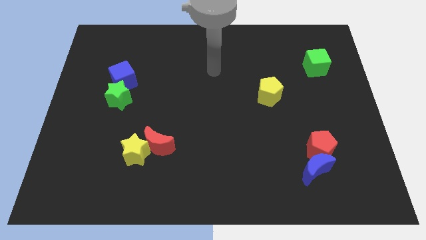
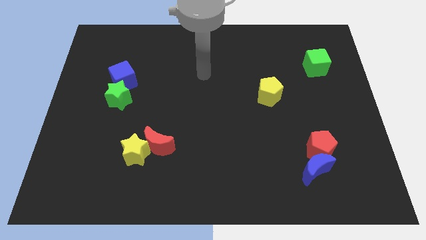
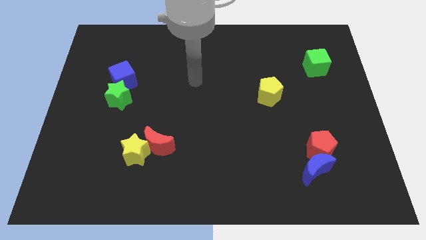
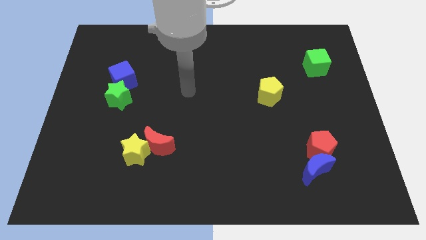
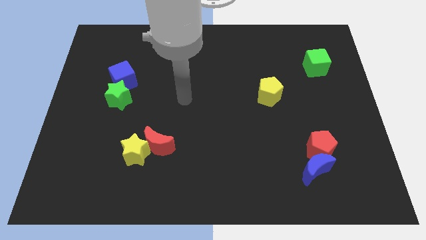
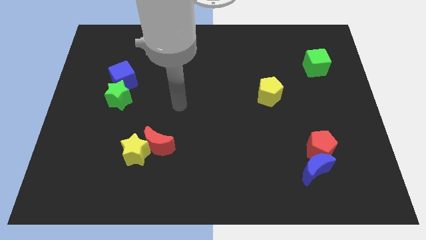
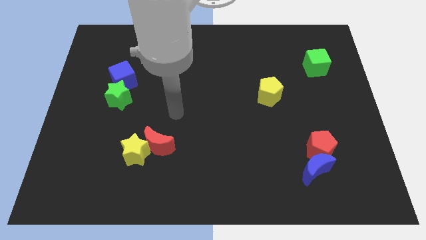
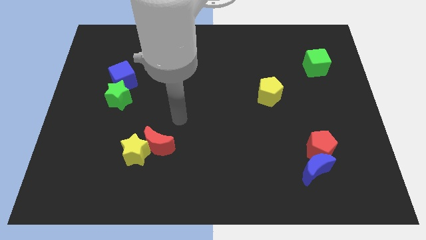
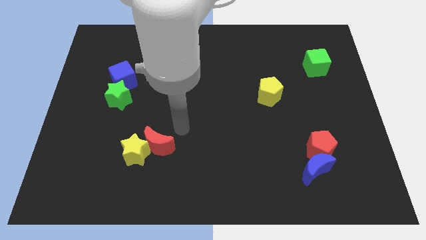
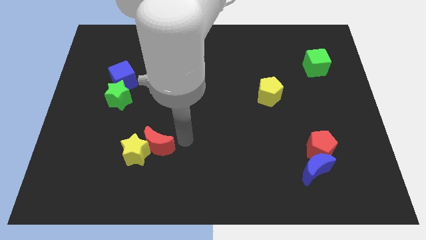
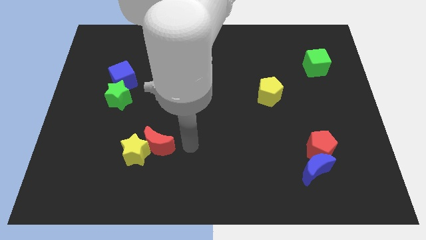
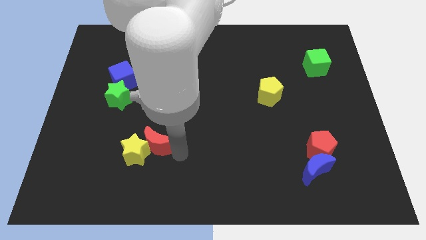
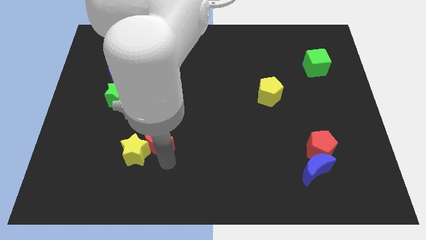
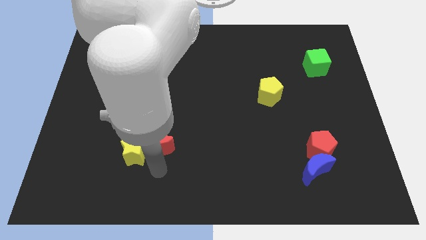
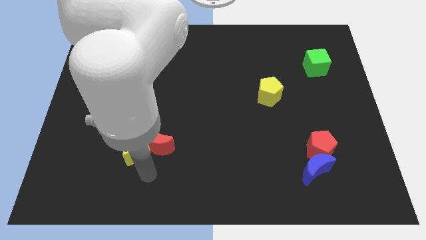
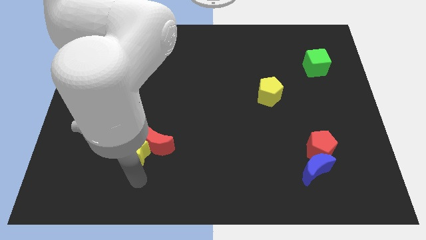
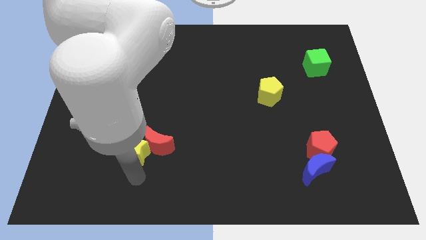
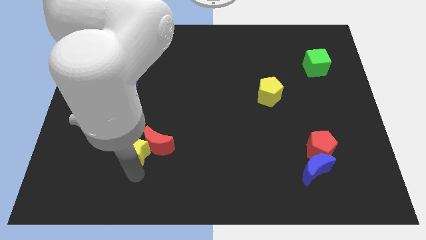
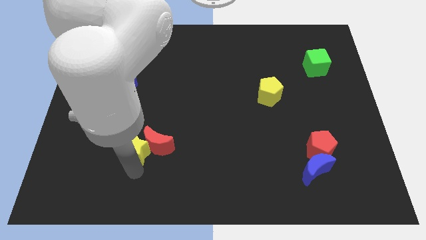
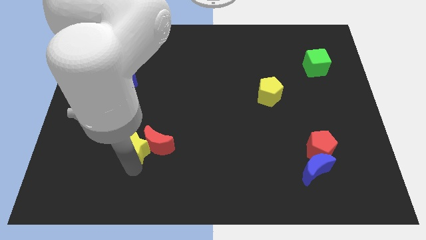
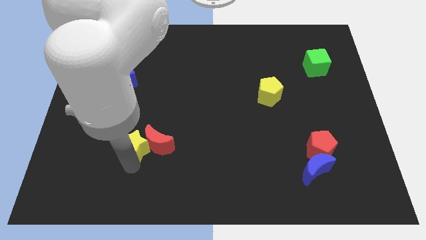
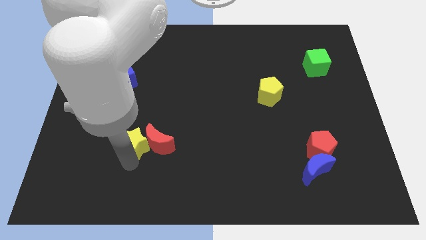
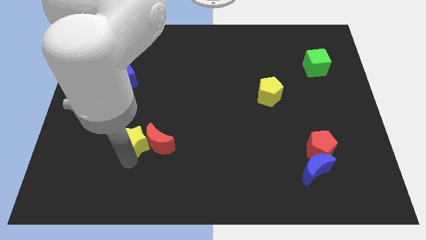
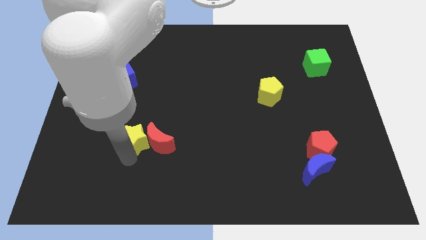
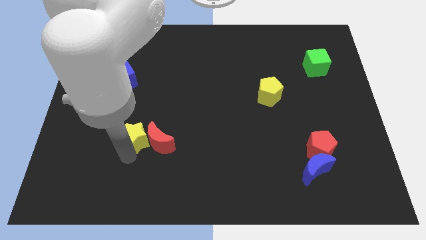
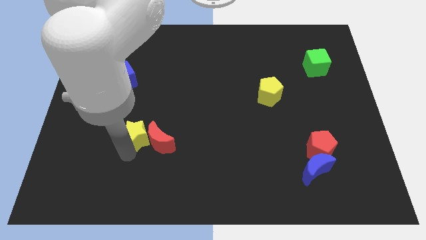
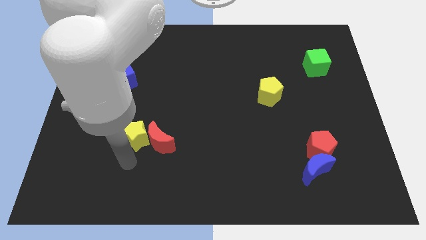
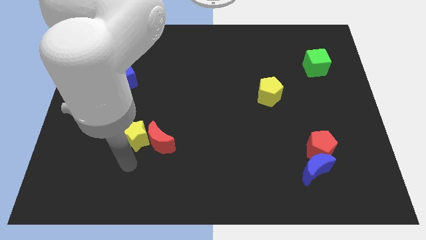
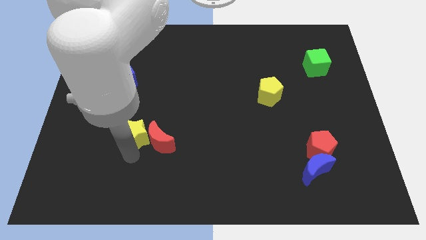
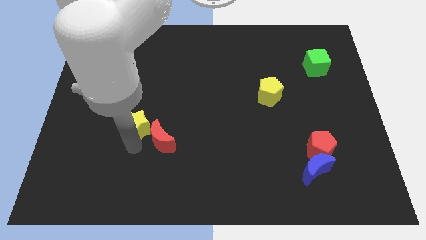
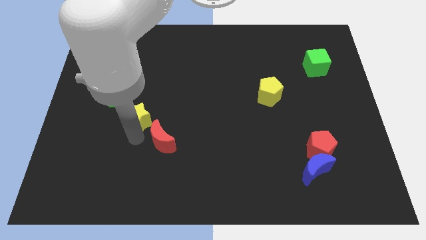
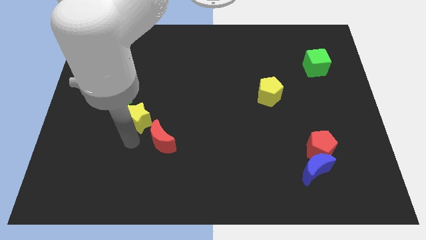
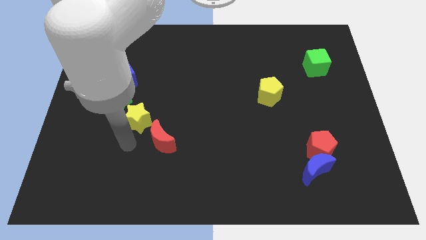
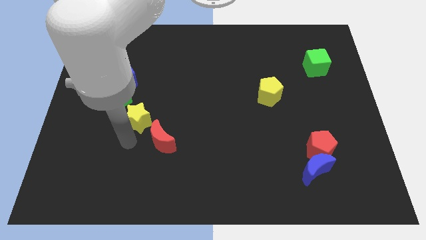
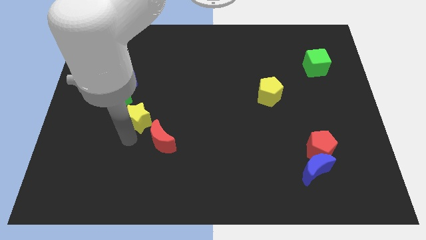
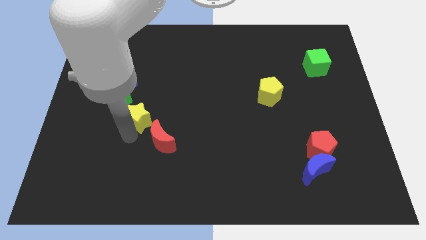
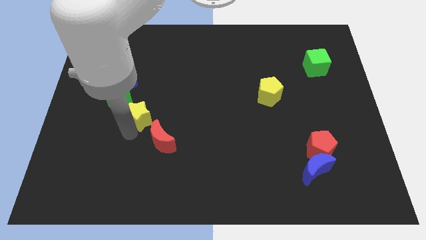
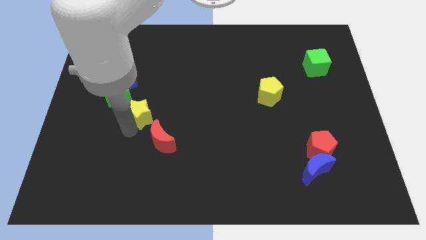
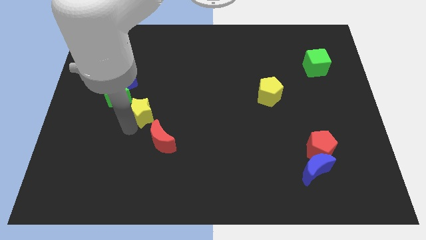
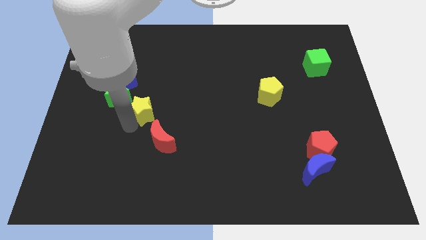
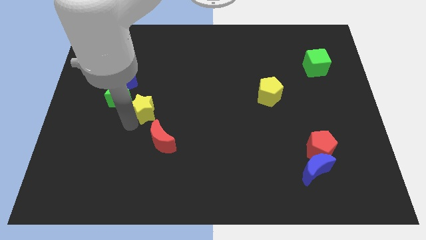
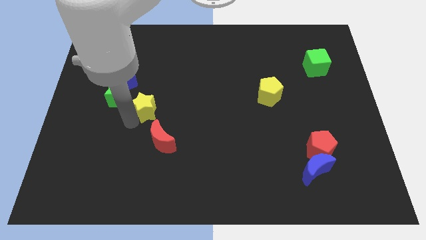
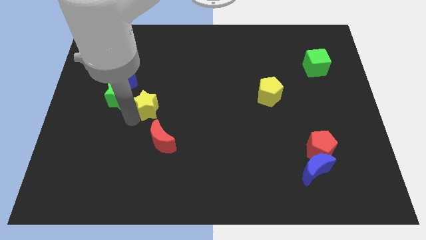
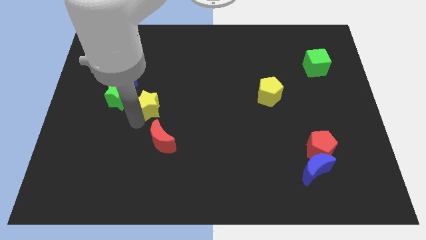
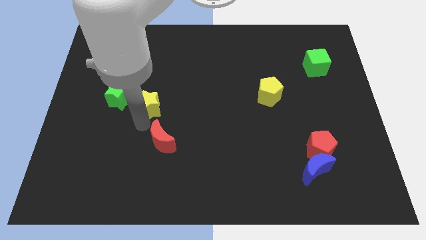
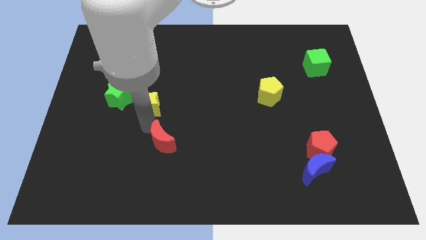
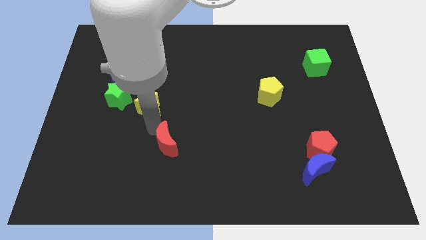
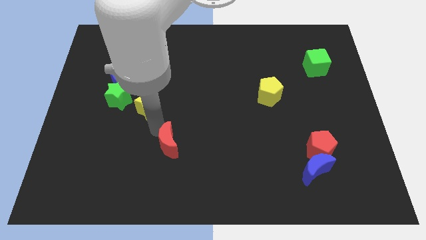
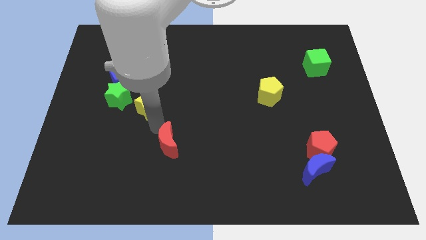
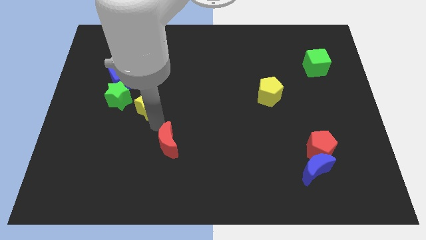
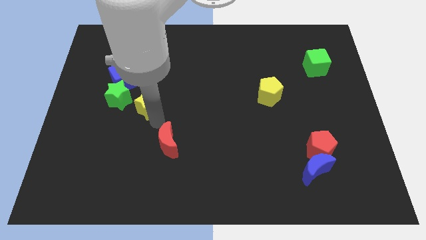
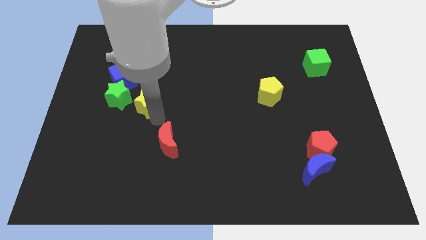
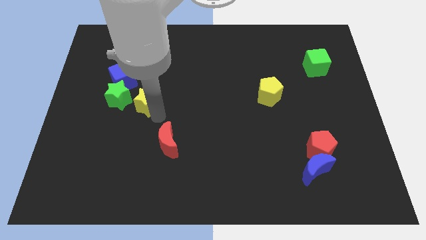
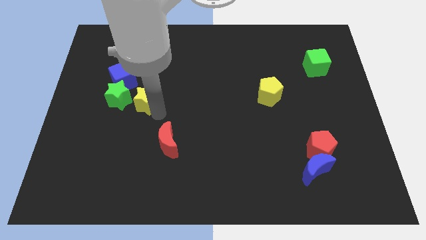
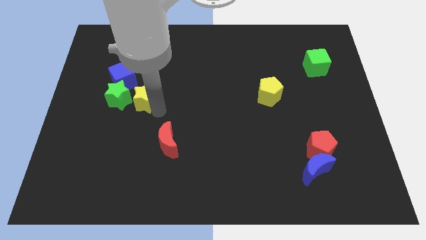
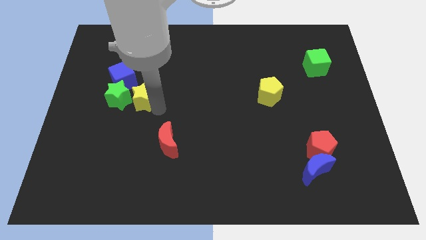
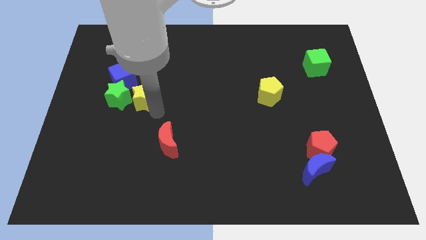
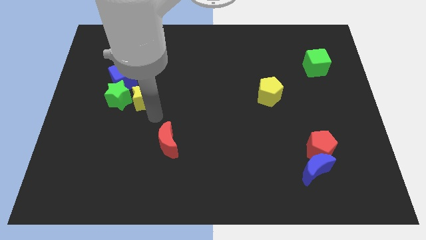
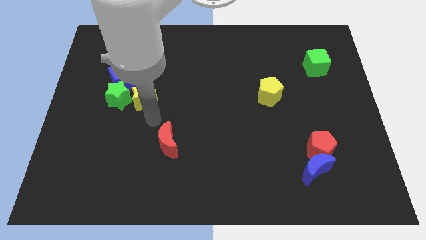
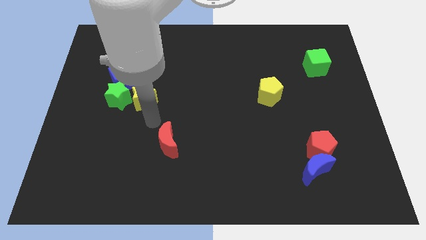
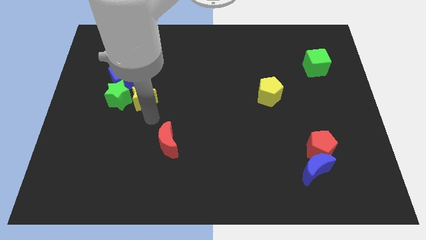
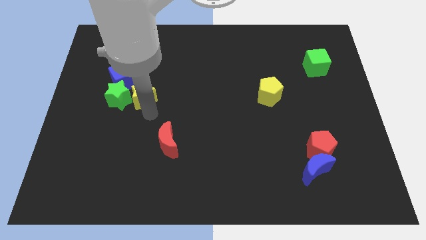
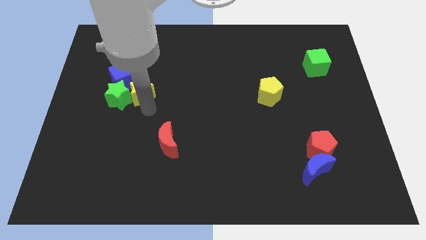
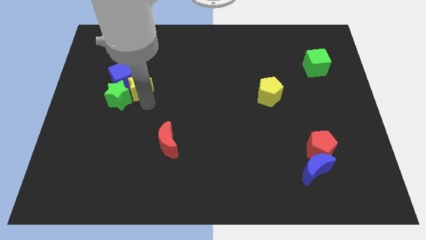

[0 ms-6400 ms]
slide the yellow star close to the blue cube
